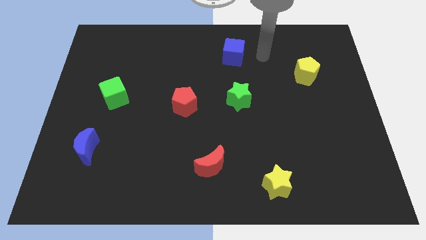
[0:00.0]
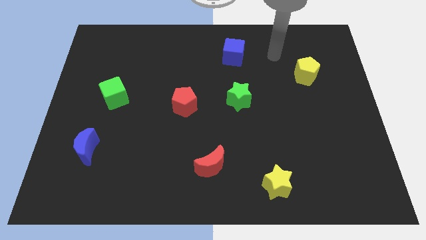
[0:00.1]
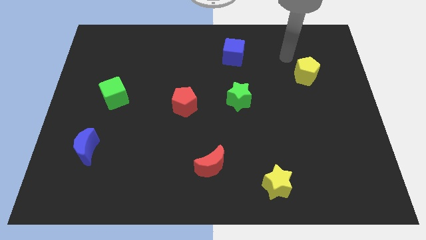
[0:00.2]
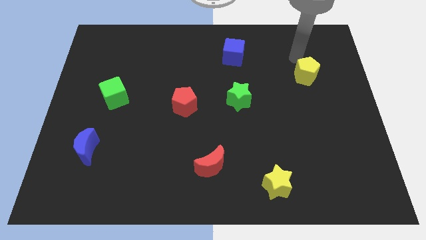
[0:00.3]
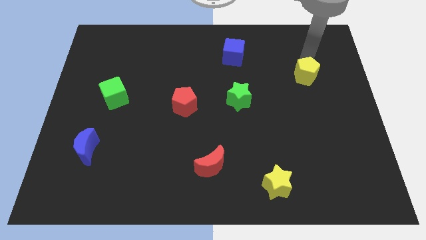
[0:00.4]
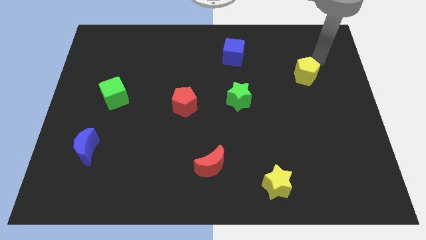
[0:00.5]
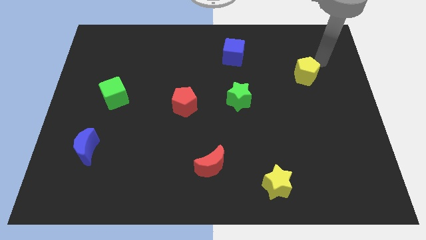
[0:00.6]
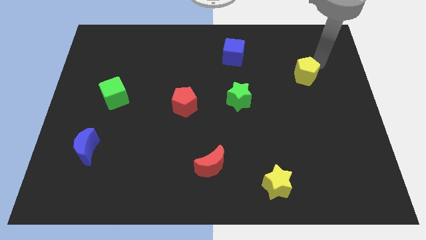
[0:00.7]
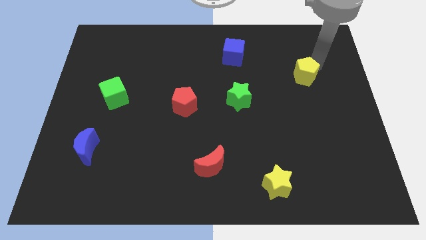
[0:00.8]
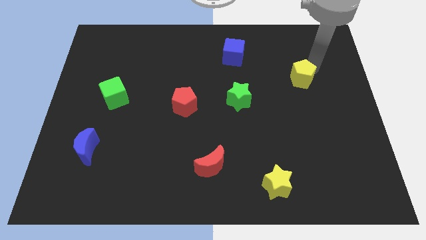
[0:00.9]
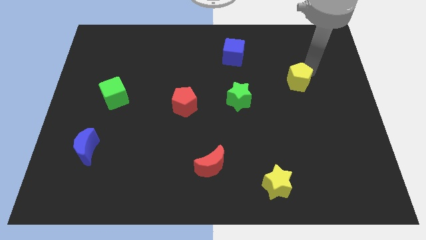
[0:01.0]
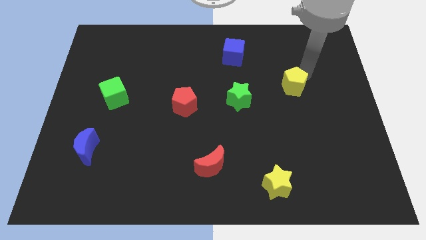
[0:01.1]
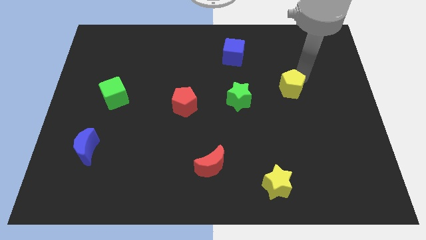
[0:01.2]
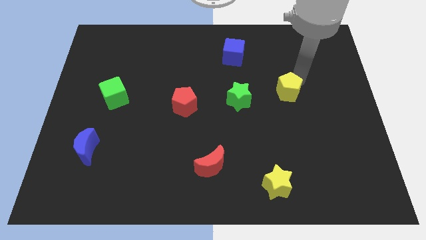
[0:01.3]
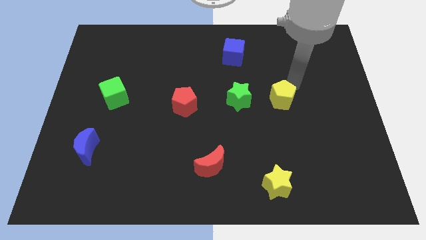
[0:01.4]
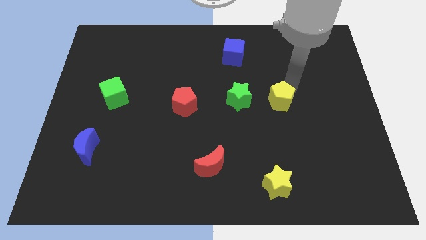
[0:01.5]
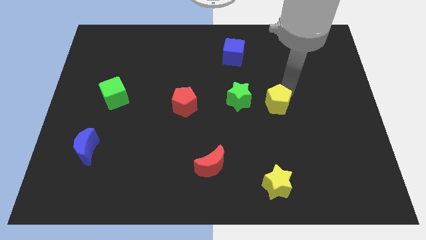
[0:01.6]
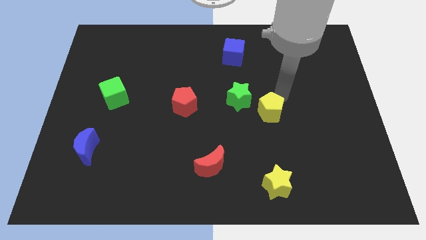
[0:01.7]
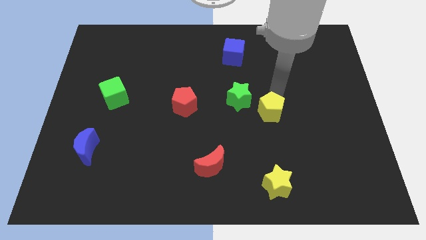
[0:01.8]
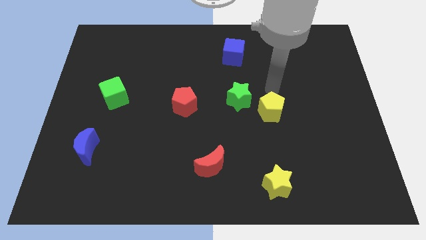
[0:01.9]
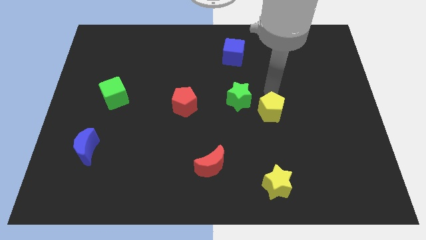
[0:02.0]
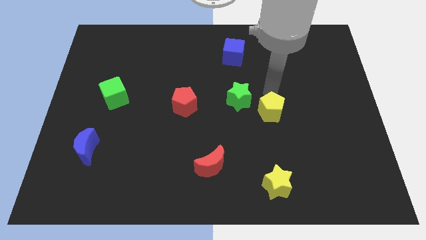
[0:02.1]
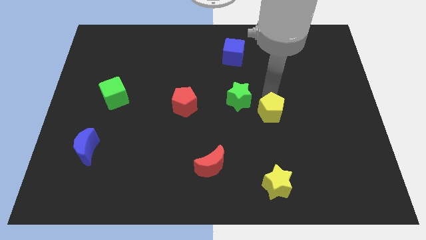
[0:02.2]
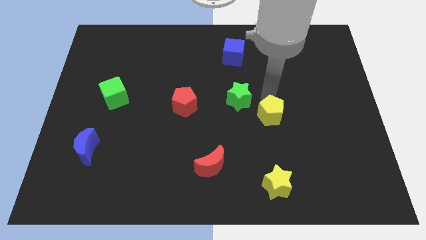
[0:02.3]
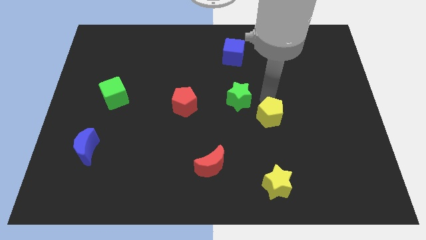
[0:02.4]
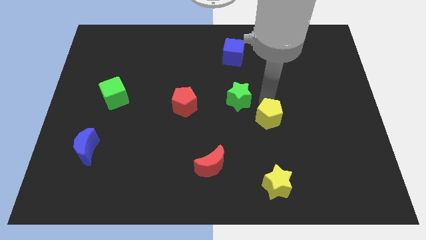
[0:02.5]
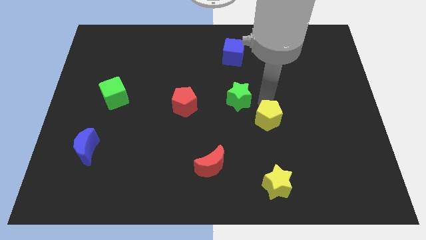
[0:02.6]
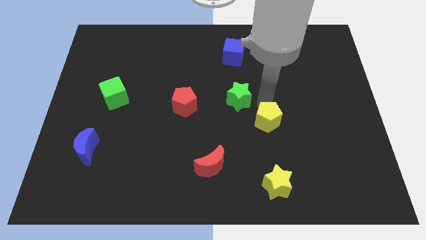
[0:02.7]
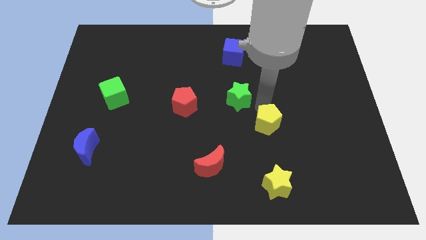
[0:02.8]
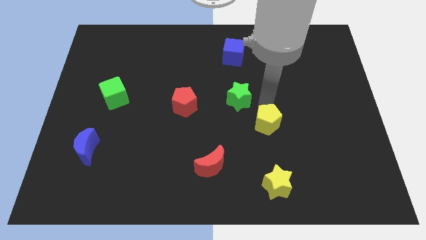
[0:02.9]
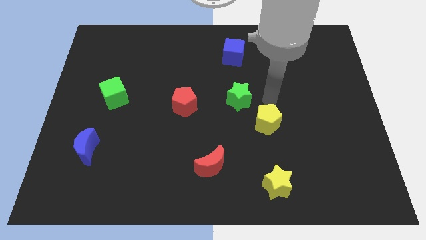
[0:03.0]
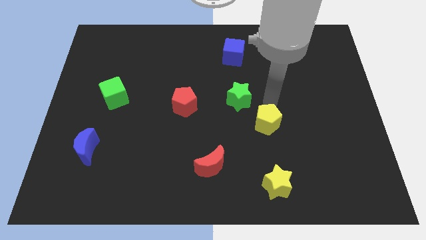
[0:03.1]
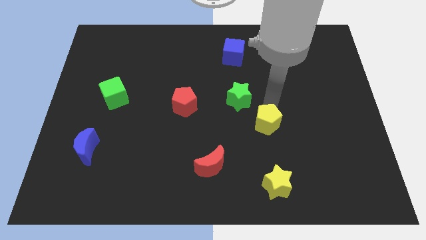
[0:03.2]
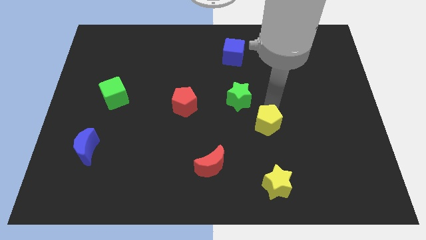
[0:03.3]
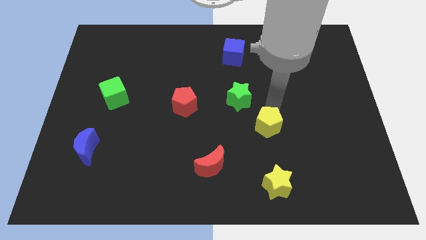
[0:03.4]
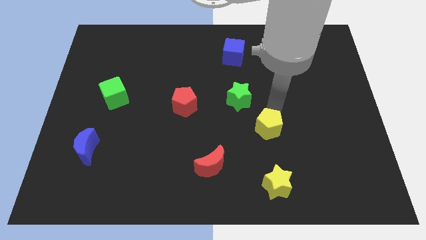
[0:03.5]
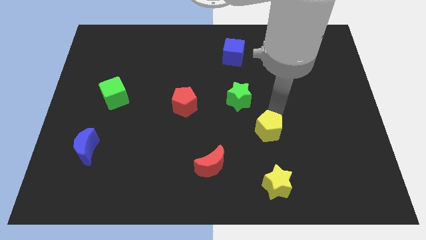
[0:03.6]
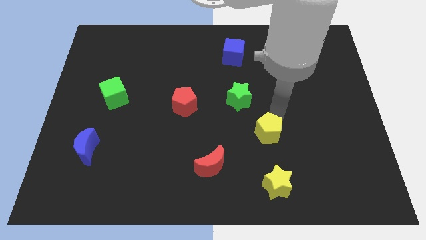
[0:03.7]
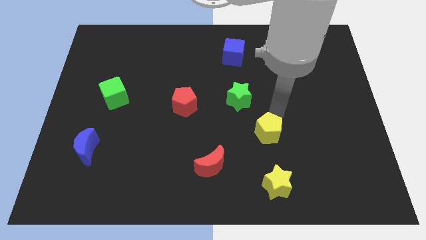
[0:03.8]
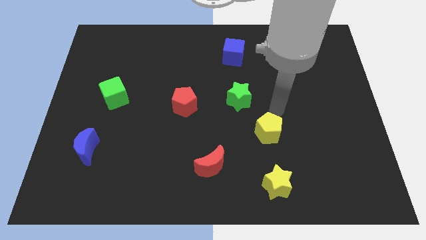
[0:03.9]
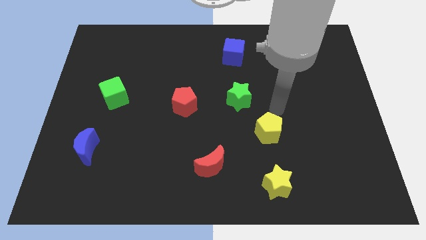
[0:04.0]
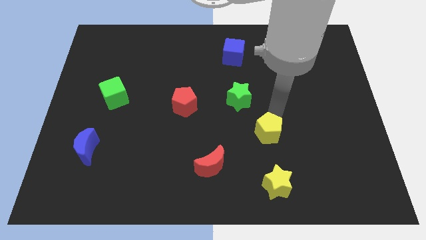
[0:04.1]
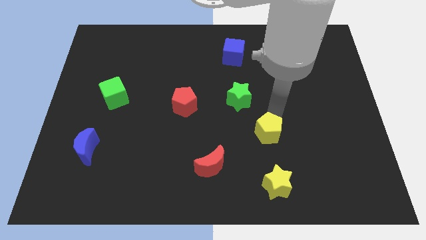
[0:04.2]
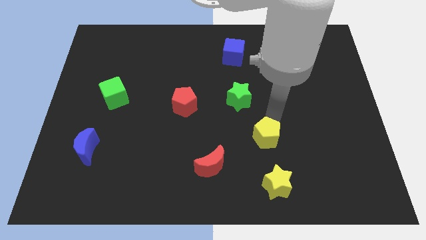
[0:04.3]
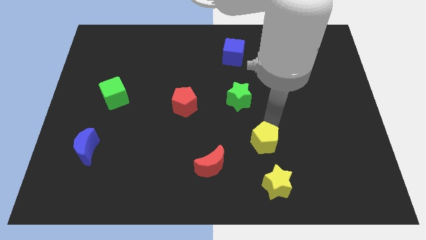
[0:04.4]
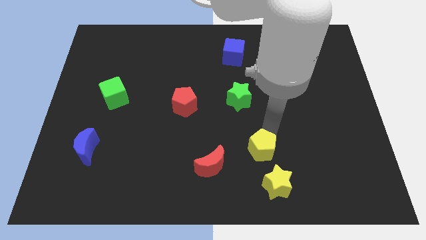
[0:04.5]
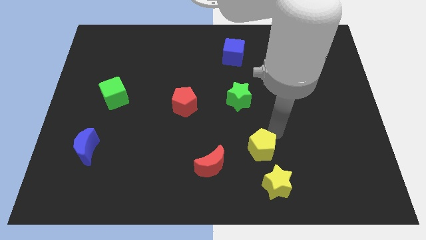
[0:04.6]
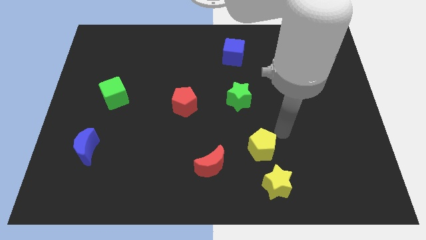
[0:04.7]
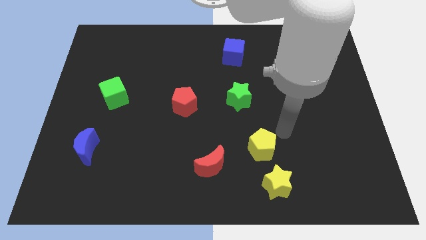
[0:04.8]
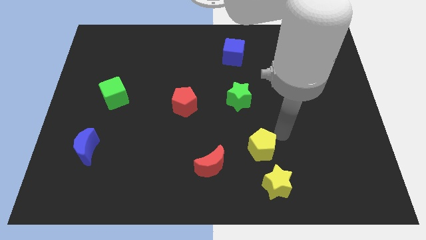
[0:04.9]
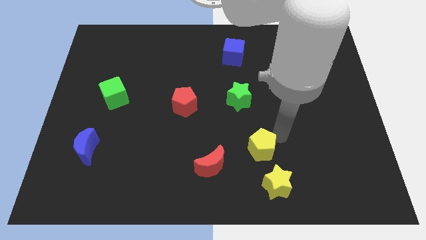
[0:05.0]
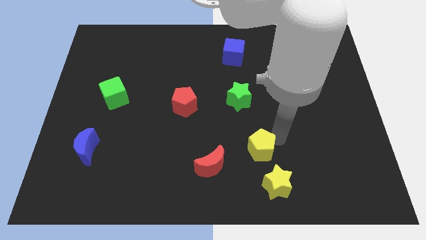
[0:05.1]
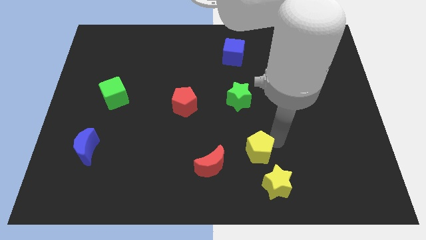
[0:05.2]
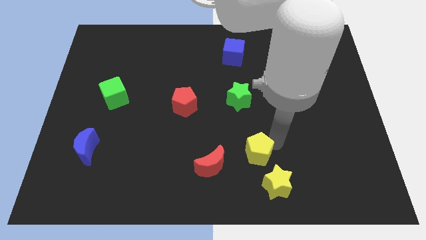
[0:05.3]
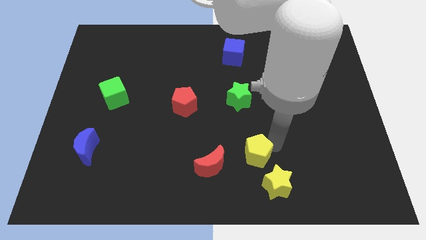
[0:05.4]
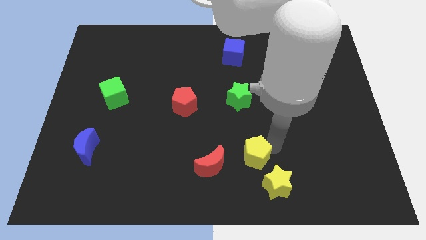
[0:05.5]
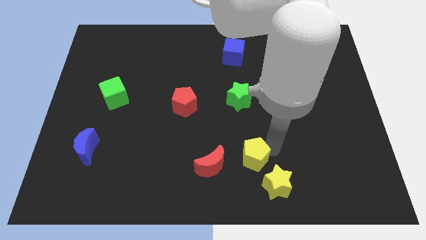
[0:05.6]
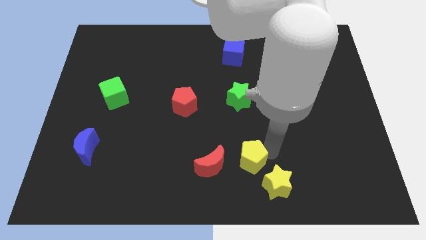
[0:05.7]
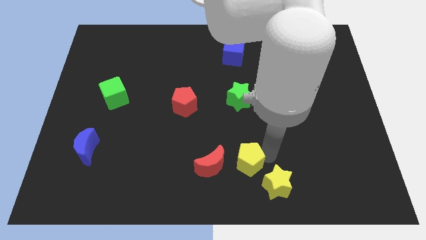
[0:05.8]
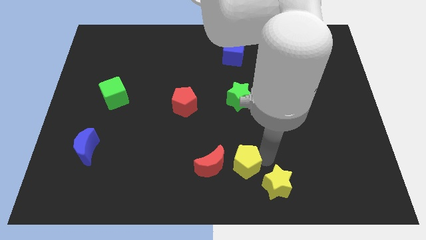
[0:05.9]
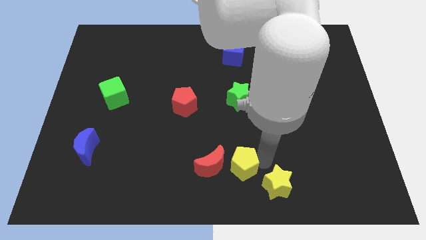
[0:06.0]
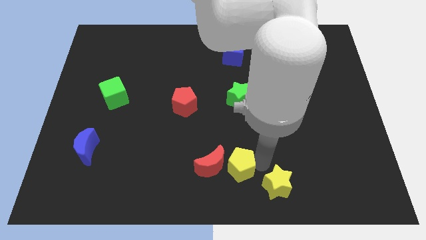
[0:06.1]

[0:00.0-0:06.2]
push the yellow pentagon next to the red moon
